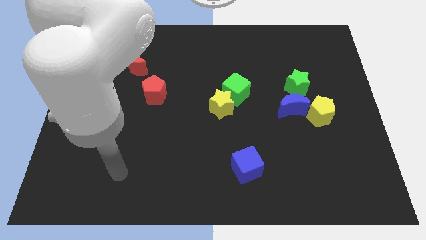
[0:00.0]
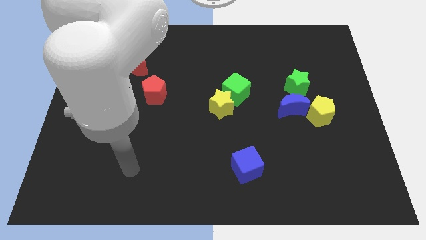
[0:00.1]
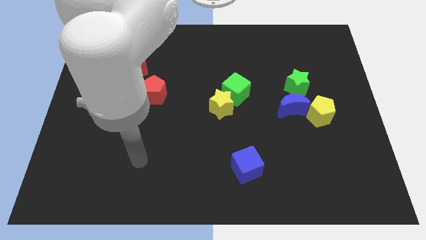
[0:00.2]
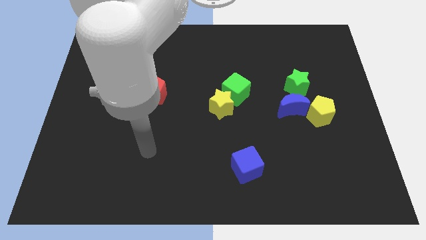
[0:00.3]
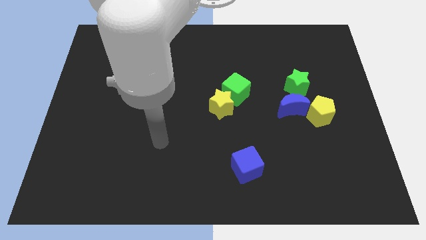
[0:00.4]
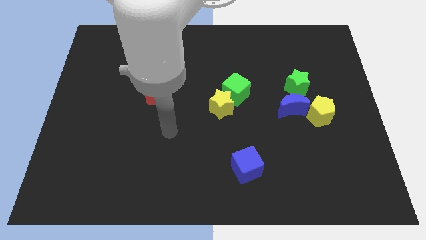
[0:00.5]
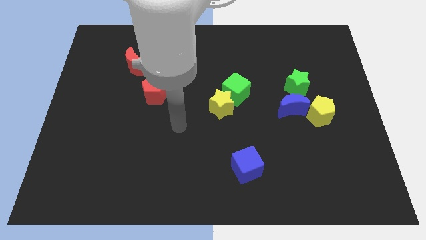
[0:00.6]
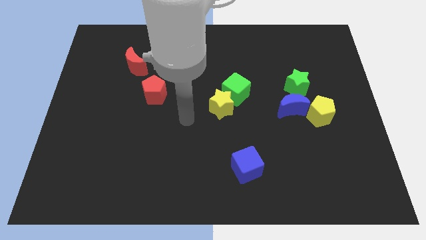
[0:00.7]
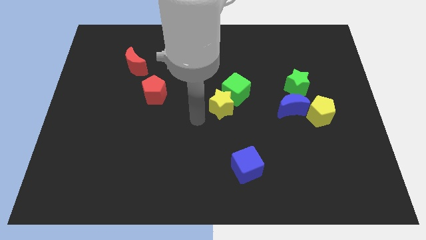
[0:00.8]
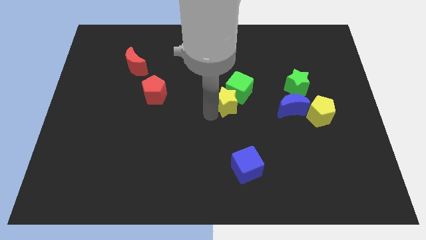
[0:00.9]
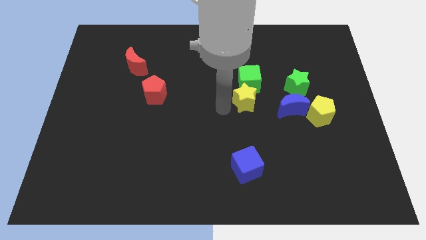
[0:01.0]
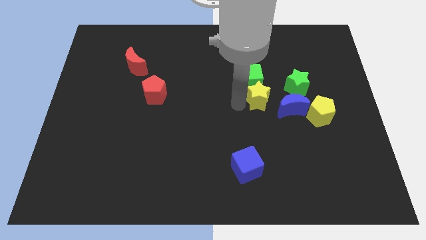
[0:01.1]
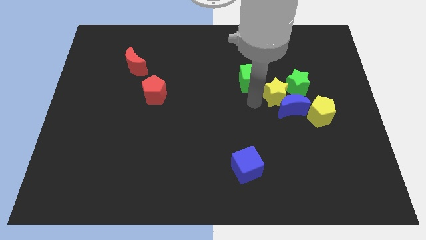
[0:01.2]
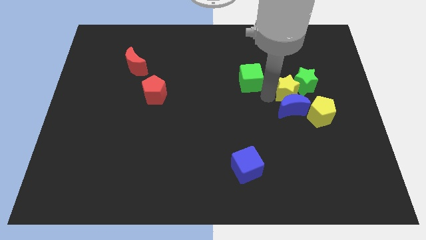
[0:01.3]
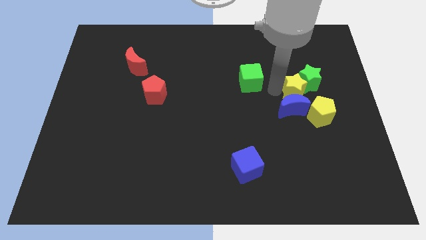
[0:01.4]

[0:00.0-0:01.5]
move the green cube away from the yellow star

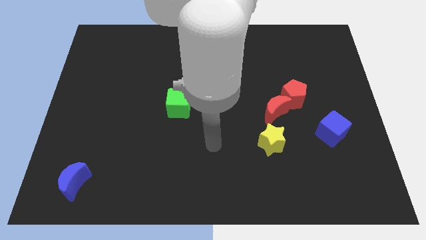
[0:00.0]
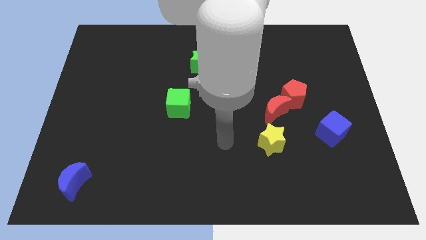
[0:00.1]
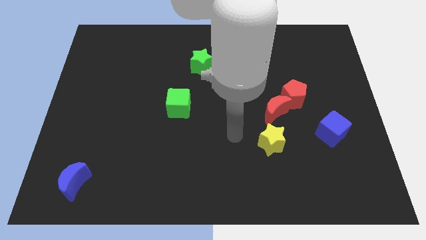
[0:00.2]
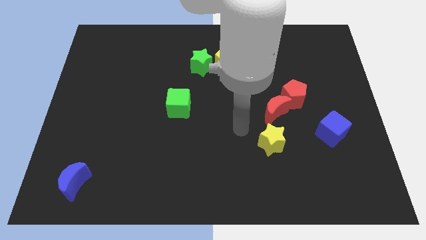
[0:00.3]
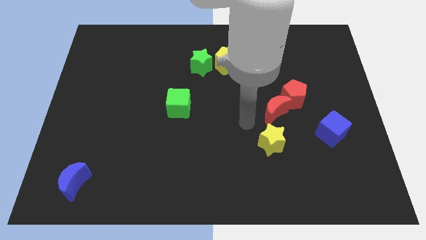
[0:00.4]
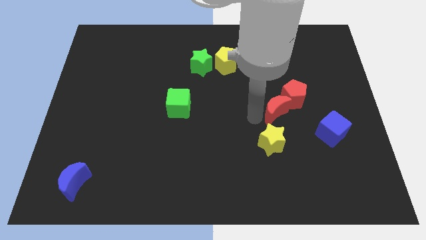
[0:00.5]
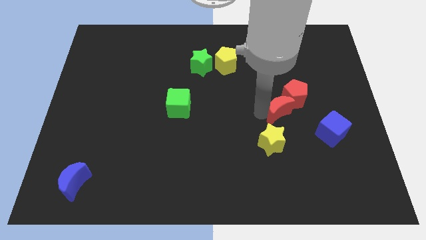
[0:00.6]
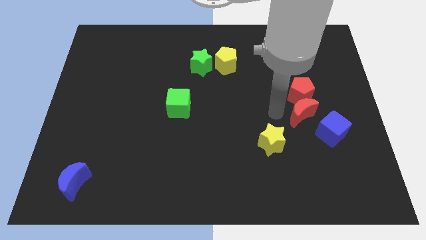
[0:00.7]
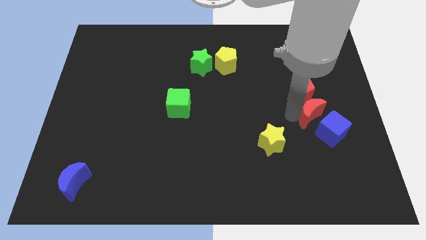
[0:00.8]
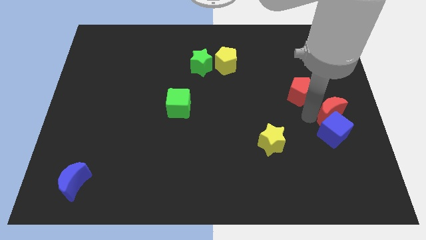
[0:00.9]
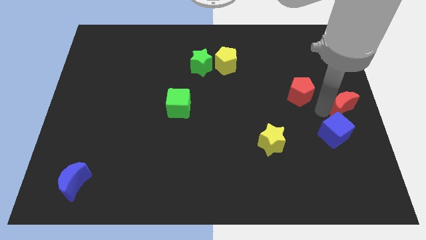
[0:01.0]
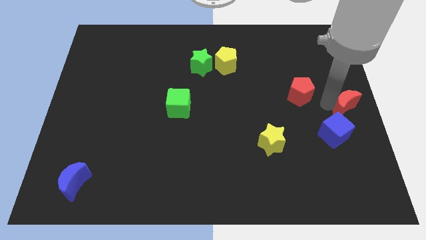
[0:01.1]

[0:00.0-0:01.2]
pull the red pentagon apart from the red moon

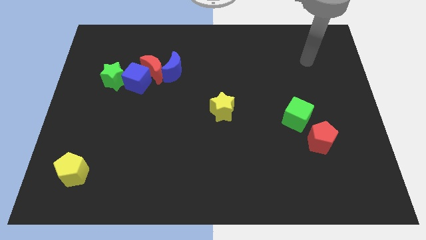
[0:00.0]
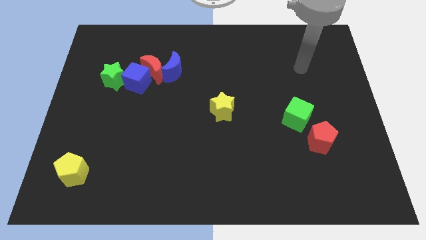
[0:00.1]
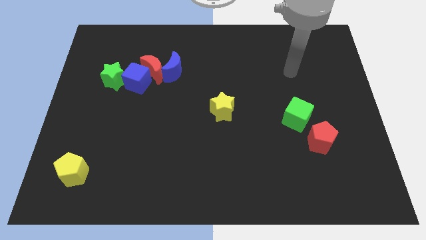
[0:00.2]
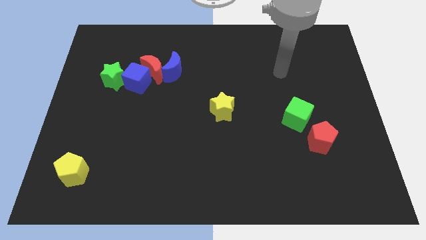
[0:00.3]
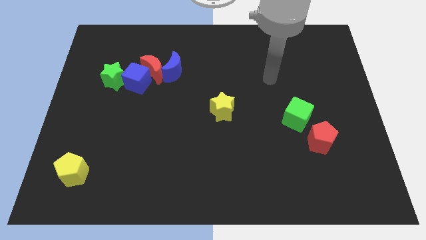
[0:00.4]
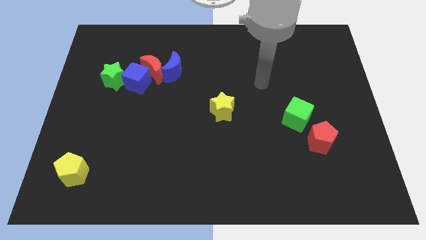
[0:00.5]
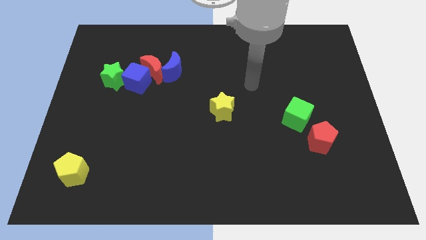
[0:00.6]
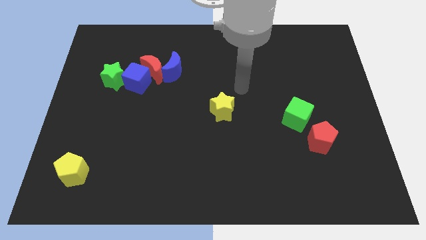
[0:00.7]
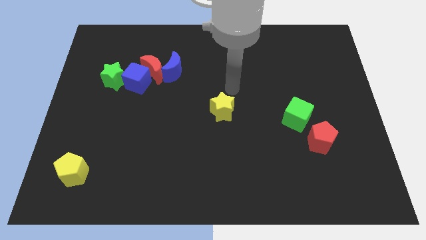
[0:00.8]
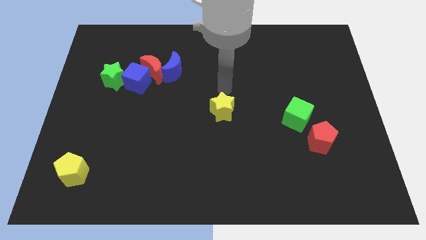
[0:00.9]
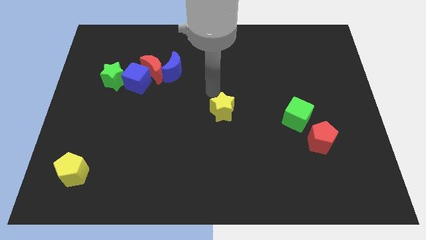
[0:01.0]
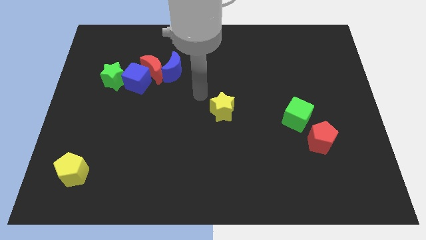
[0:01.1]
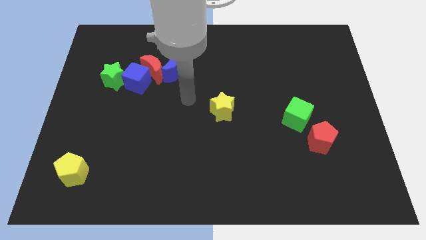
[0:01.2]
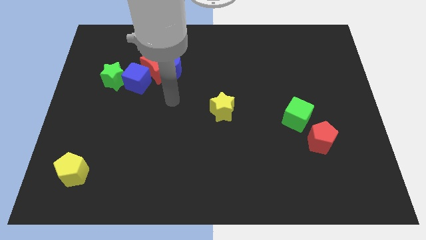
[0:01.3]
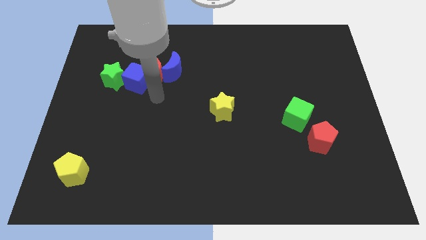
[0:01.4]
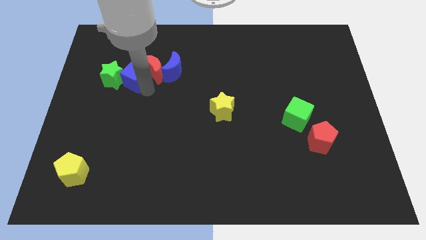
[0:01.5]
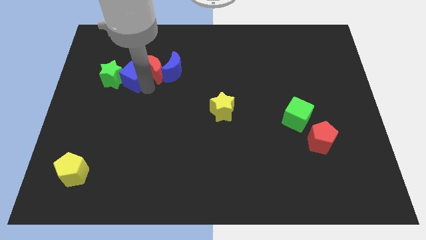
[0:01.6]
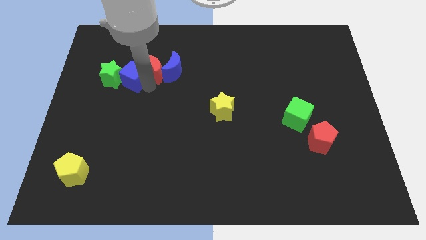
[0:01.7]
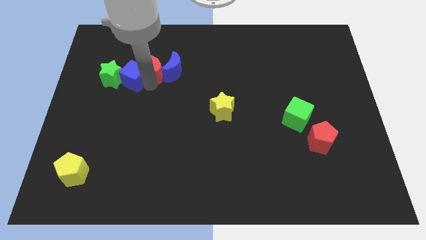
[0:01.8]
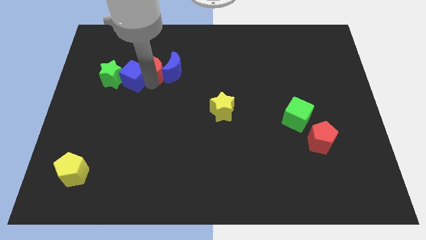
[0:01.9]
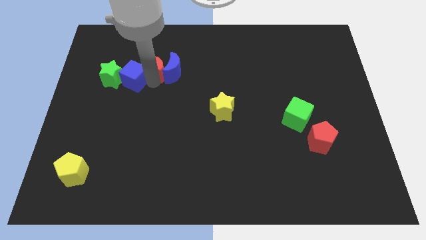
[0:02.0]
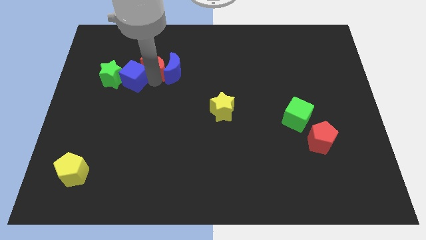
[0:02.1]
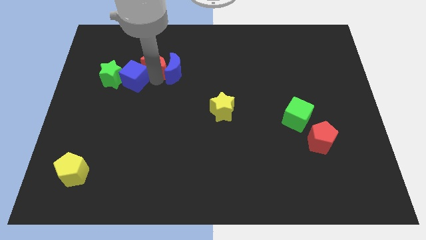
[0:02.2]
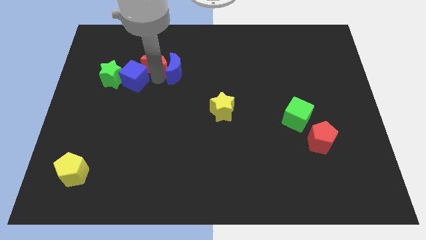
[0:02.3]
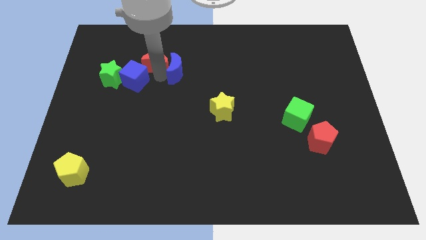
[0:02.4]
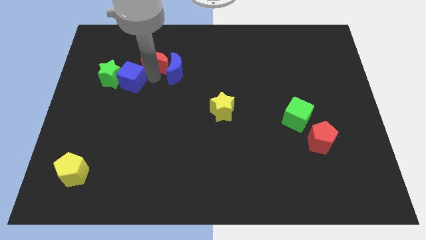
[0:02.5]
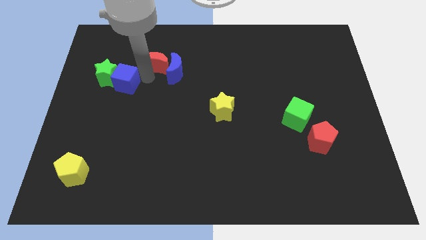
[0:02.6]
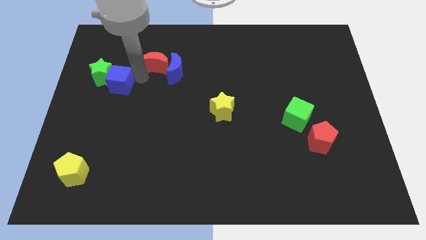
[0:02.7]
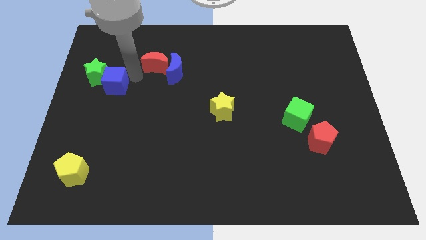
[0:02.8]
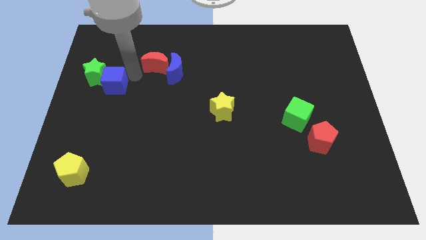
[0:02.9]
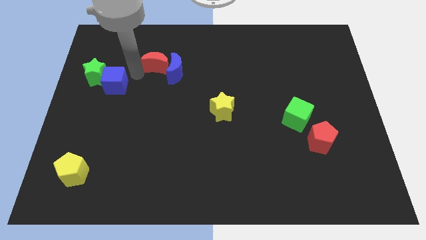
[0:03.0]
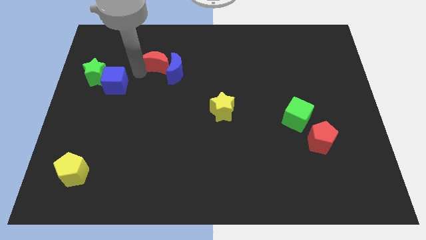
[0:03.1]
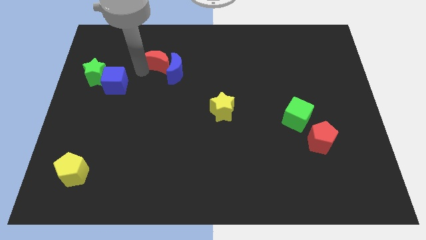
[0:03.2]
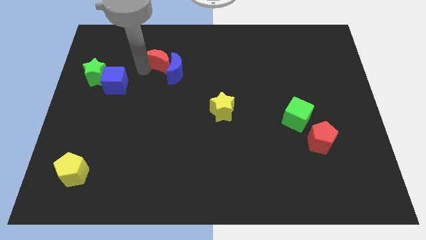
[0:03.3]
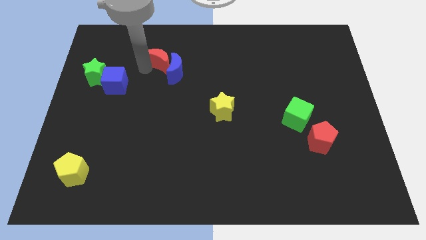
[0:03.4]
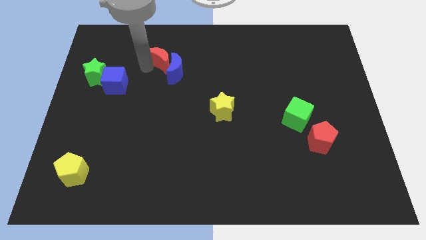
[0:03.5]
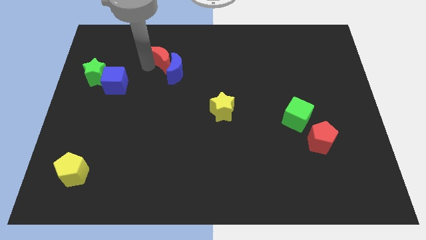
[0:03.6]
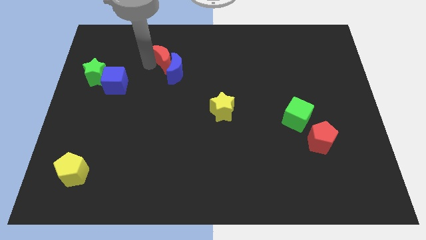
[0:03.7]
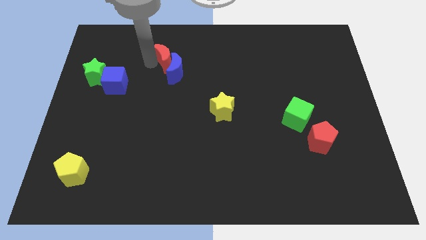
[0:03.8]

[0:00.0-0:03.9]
pull the red moon apart from the group of blocks

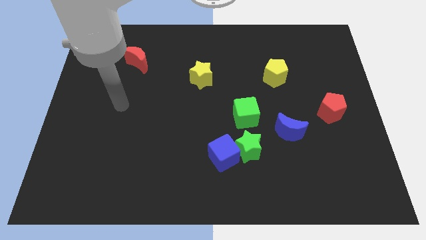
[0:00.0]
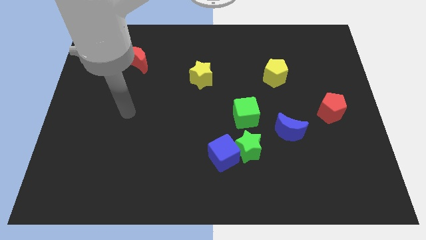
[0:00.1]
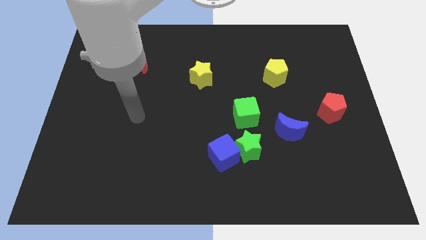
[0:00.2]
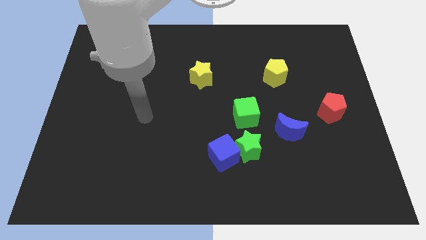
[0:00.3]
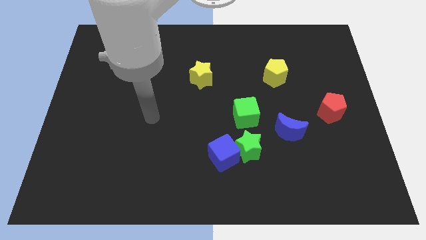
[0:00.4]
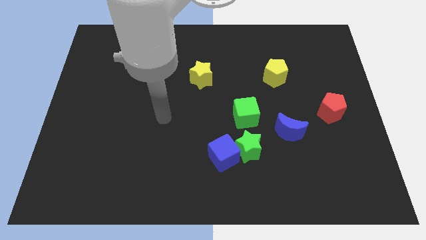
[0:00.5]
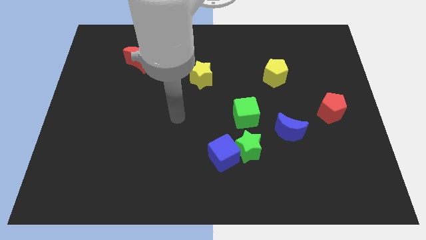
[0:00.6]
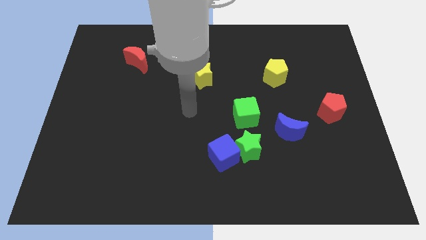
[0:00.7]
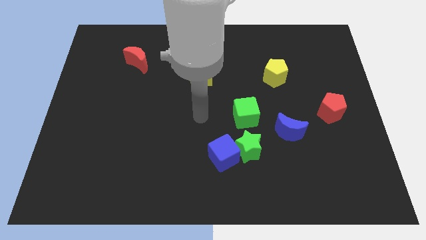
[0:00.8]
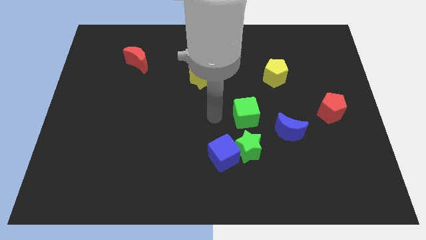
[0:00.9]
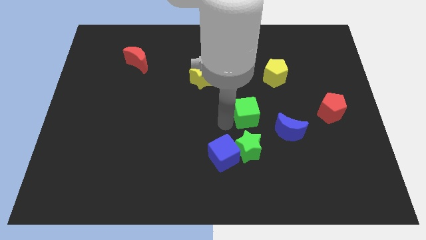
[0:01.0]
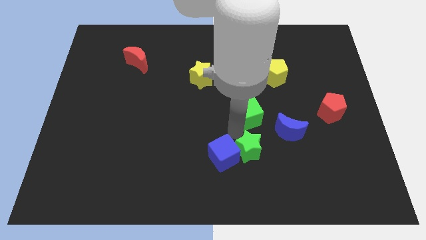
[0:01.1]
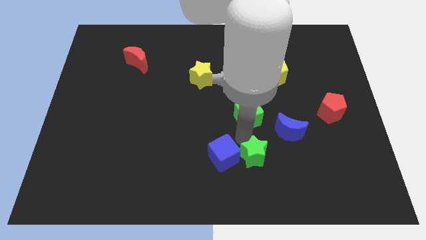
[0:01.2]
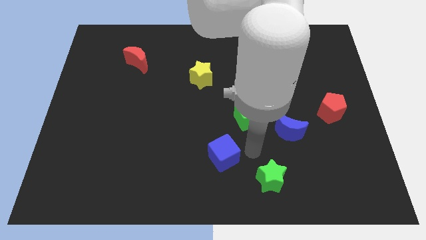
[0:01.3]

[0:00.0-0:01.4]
pull the blue cube apart from the green star

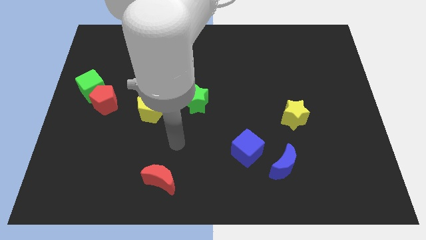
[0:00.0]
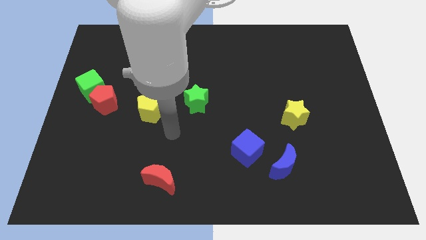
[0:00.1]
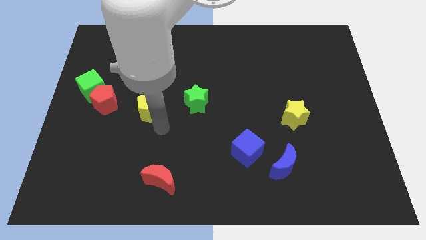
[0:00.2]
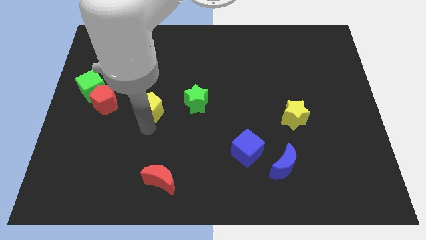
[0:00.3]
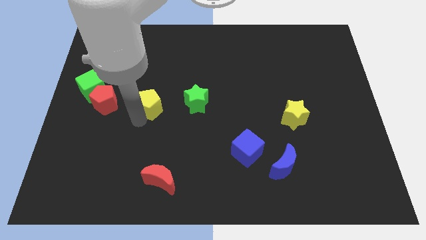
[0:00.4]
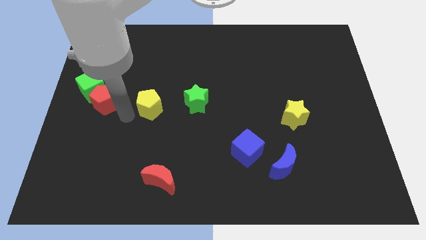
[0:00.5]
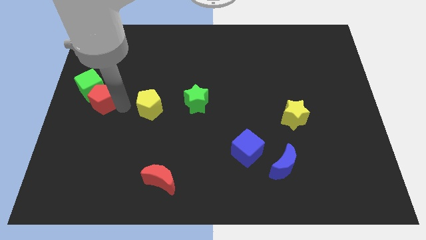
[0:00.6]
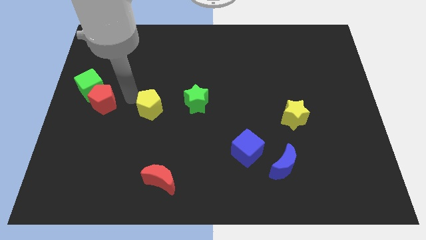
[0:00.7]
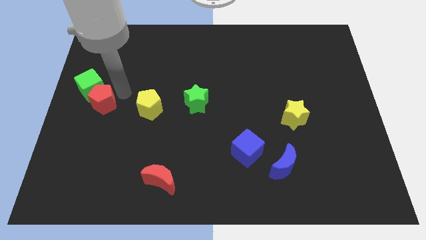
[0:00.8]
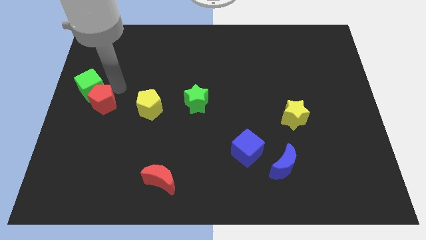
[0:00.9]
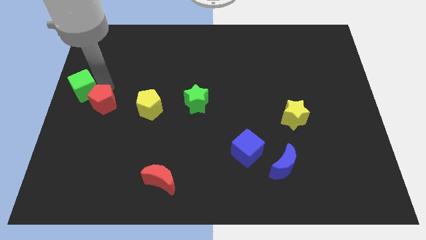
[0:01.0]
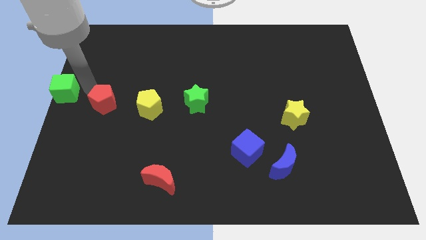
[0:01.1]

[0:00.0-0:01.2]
pull the red pentagon apart from the green cube

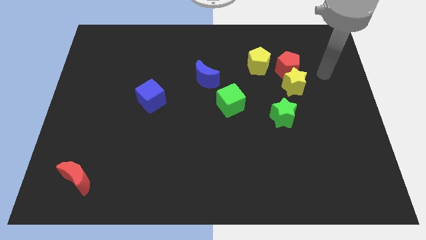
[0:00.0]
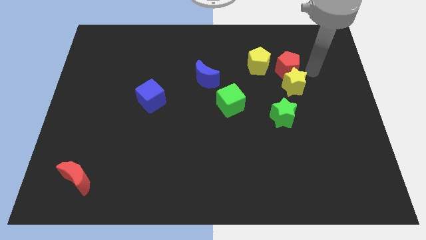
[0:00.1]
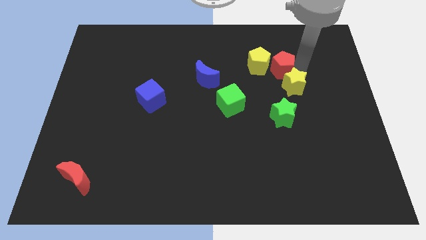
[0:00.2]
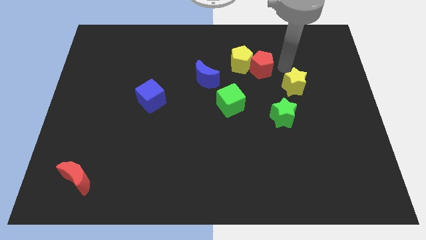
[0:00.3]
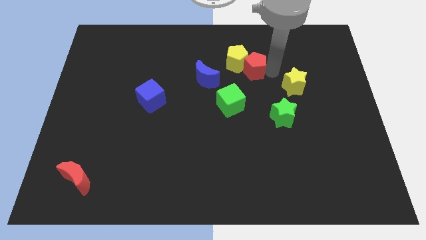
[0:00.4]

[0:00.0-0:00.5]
move the yellow star away from the red pentagon
